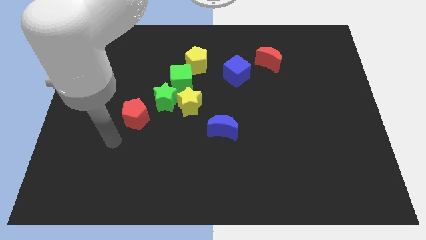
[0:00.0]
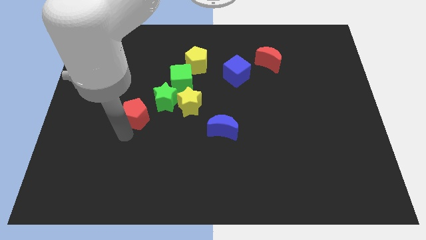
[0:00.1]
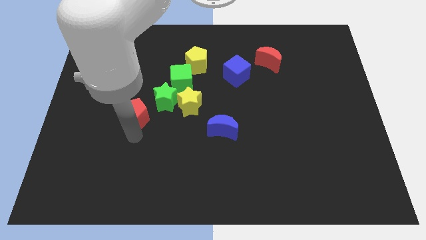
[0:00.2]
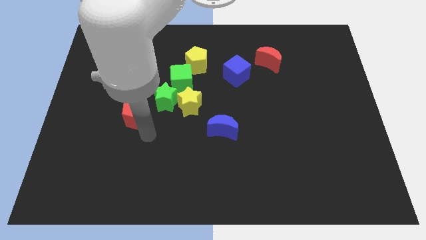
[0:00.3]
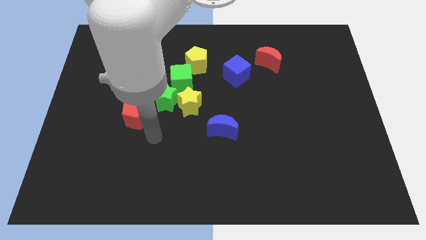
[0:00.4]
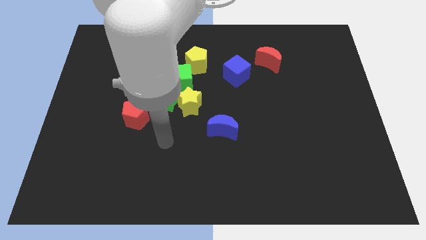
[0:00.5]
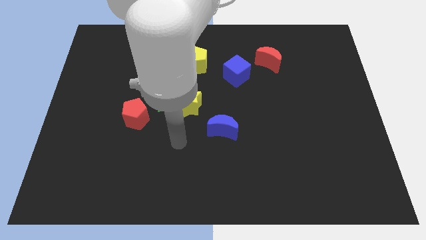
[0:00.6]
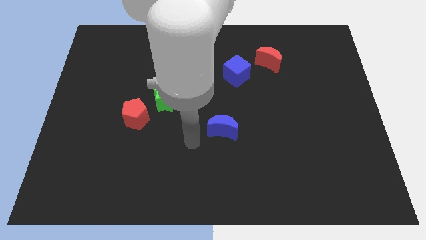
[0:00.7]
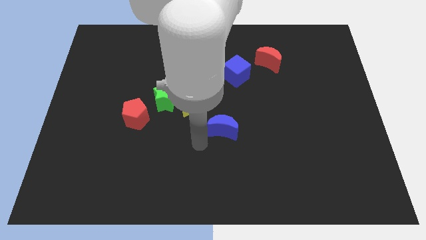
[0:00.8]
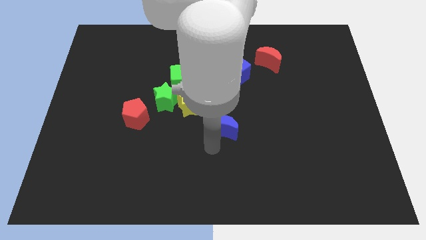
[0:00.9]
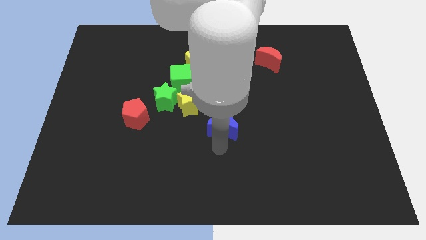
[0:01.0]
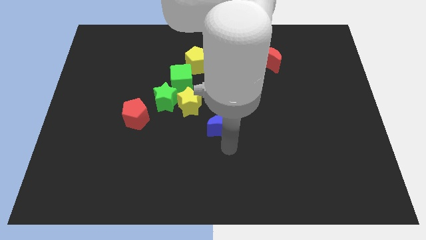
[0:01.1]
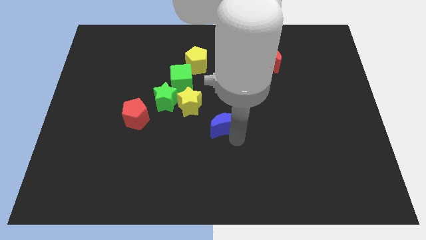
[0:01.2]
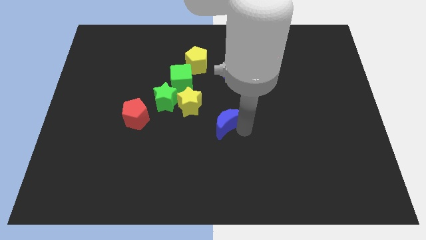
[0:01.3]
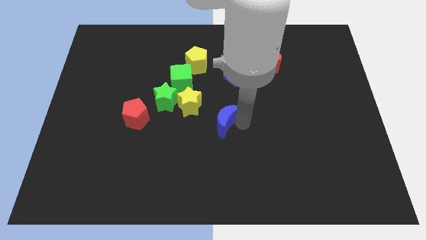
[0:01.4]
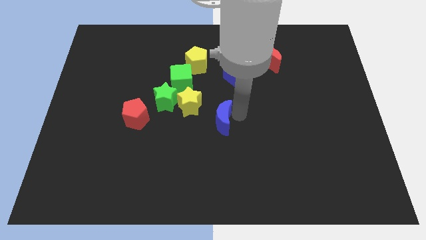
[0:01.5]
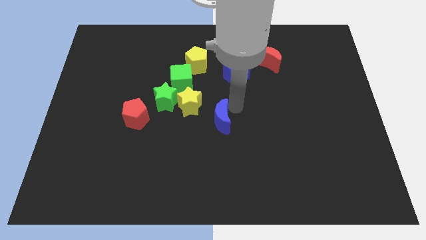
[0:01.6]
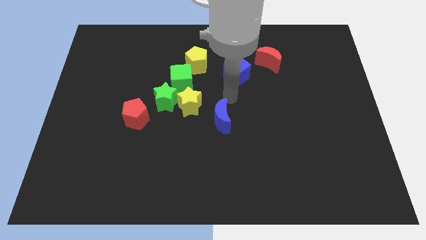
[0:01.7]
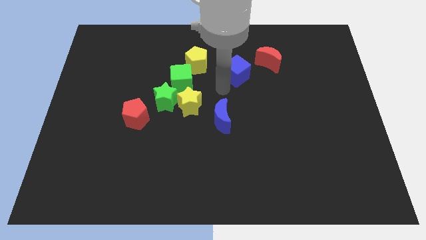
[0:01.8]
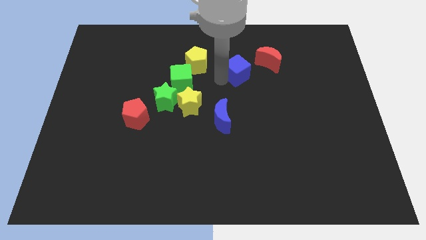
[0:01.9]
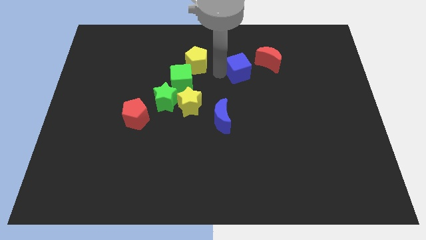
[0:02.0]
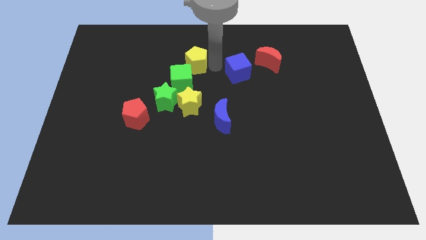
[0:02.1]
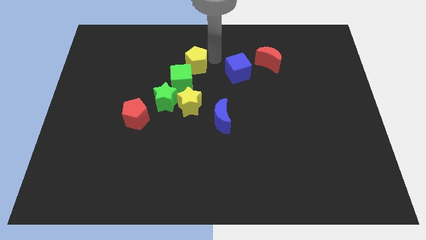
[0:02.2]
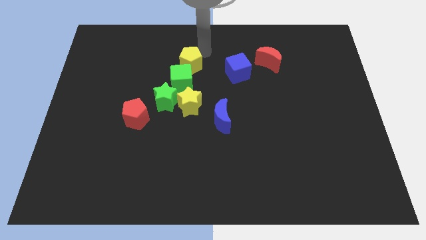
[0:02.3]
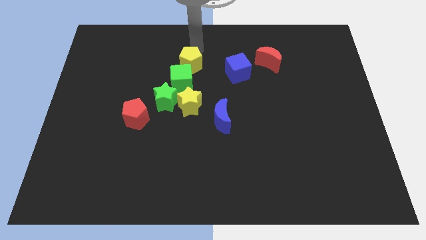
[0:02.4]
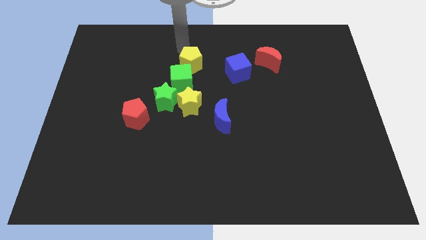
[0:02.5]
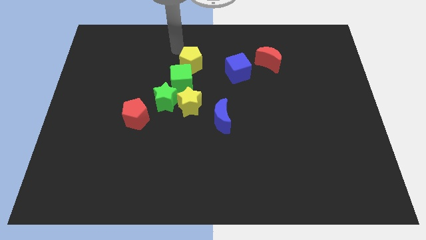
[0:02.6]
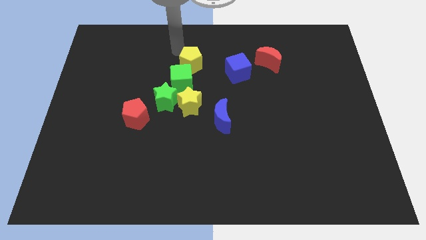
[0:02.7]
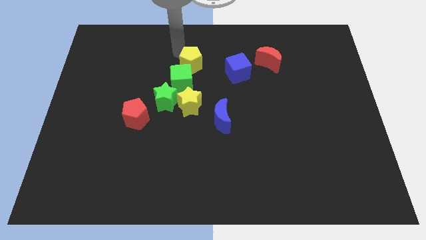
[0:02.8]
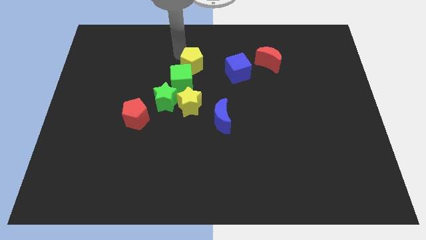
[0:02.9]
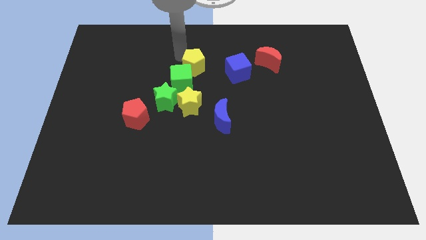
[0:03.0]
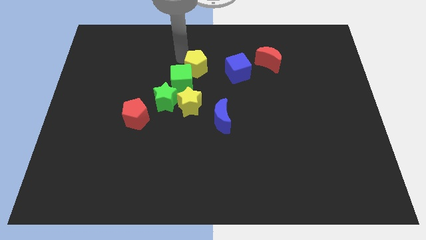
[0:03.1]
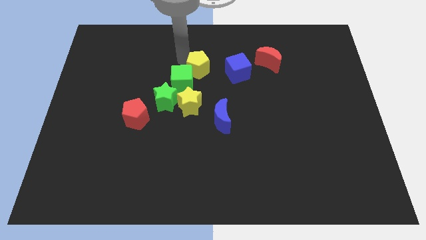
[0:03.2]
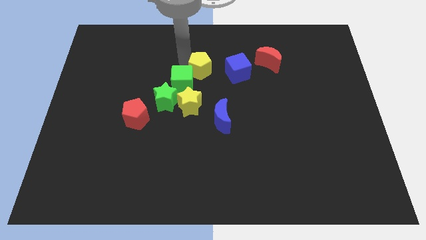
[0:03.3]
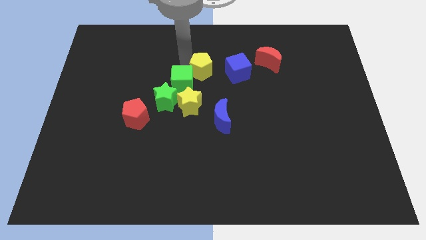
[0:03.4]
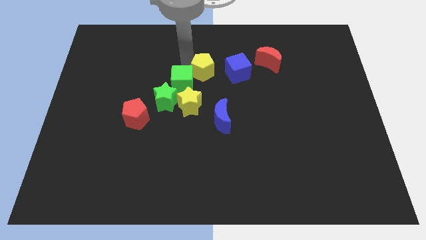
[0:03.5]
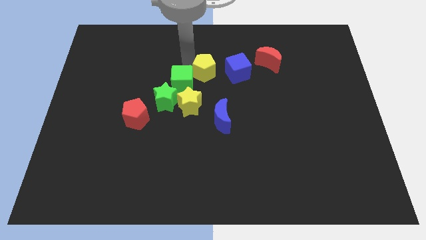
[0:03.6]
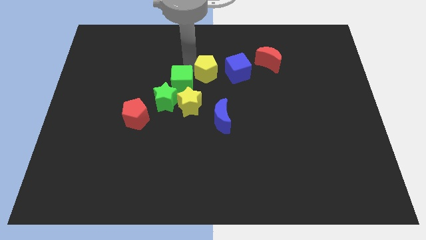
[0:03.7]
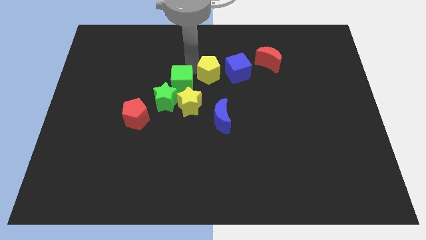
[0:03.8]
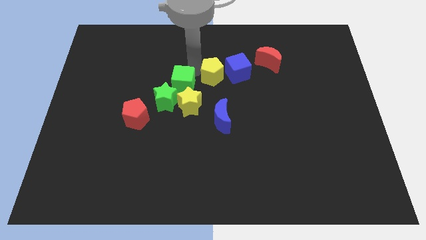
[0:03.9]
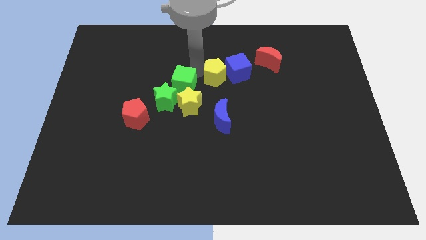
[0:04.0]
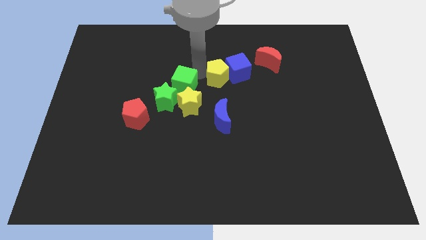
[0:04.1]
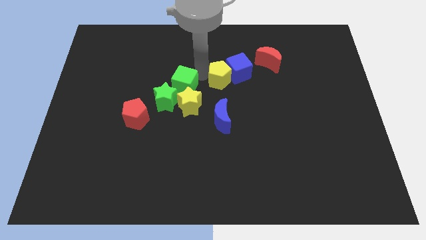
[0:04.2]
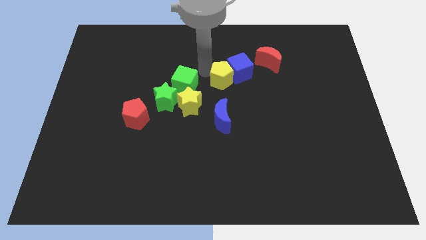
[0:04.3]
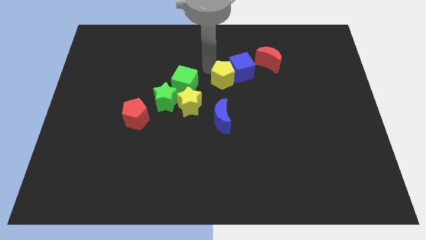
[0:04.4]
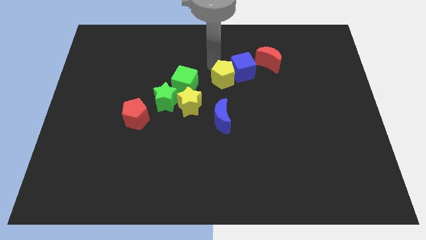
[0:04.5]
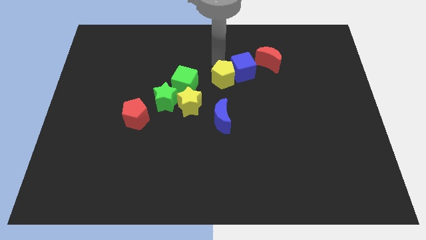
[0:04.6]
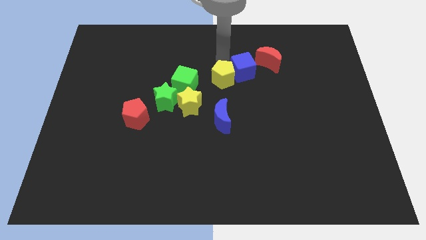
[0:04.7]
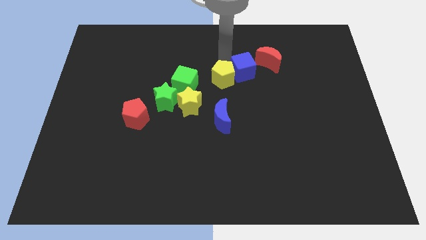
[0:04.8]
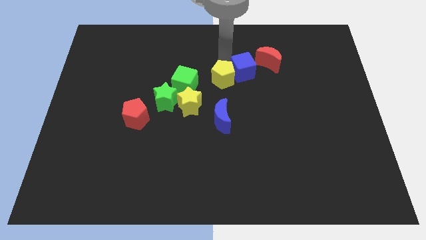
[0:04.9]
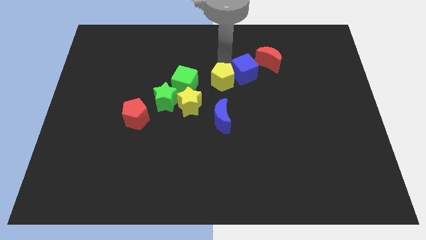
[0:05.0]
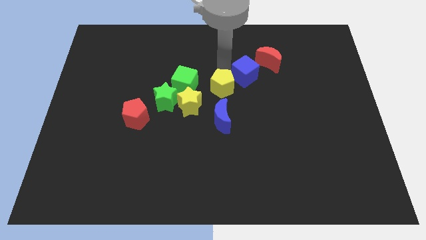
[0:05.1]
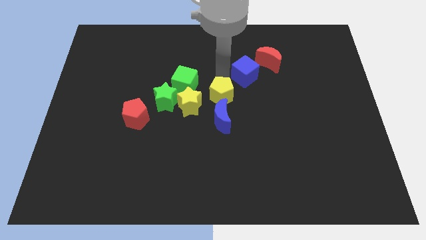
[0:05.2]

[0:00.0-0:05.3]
slide the yellow pentagon a little downwards

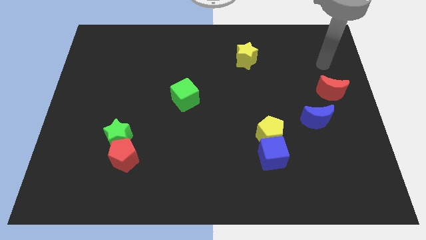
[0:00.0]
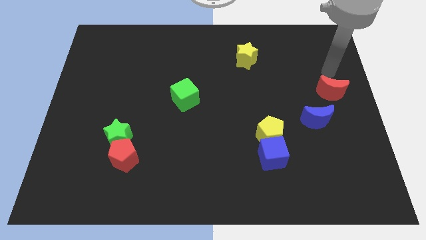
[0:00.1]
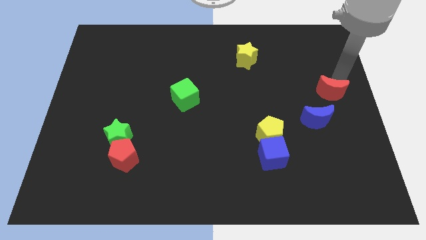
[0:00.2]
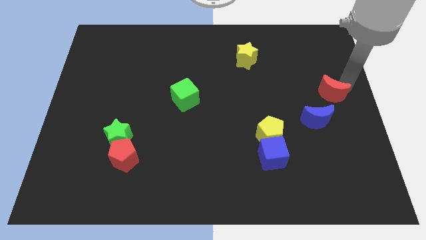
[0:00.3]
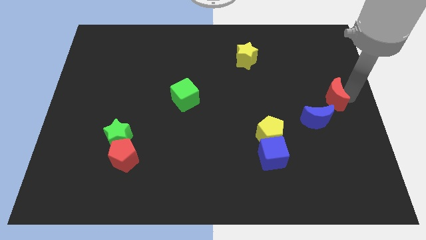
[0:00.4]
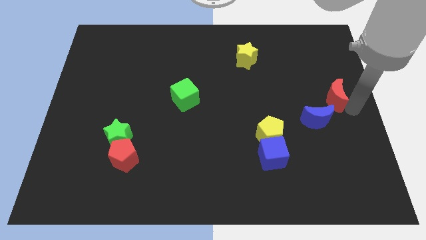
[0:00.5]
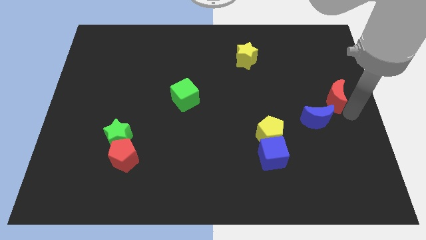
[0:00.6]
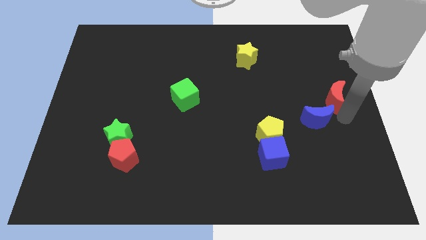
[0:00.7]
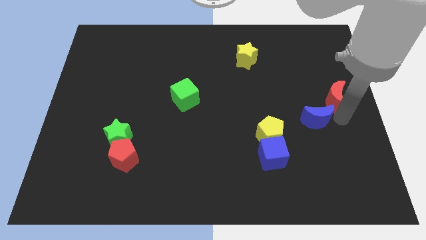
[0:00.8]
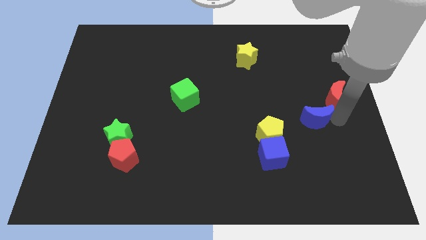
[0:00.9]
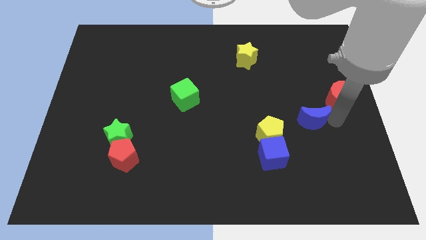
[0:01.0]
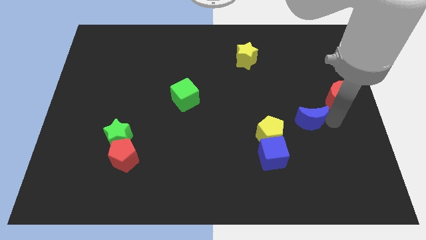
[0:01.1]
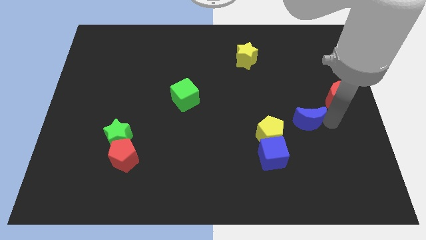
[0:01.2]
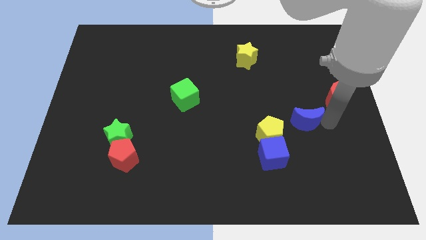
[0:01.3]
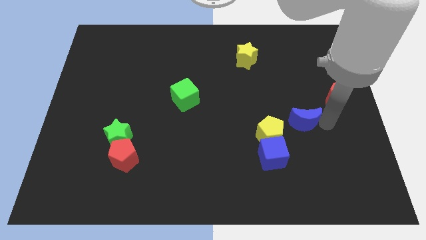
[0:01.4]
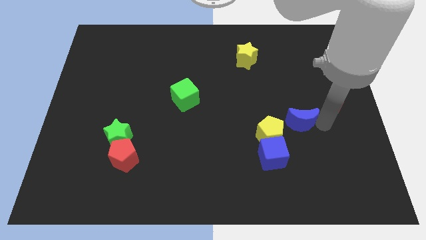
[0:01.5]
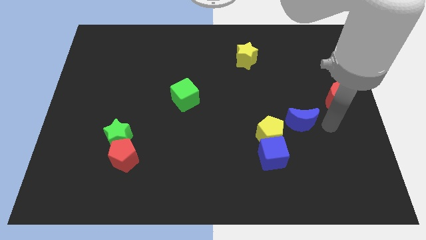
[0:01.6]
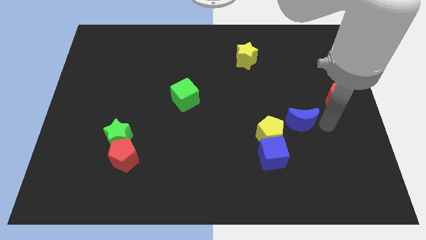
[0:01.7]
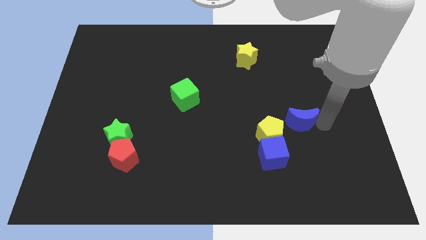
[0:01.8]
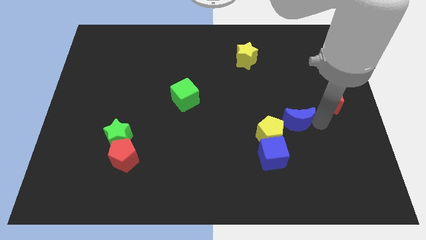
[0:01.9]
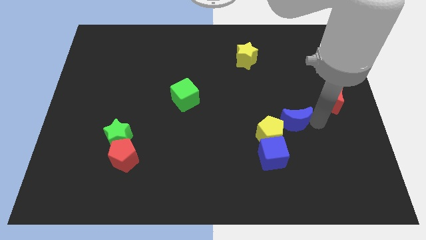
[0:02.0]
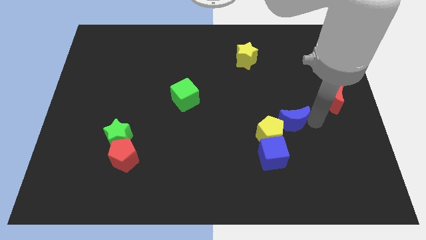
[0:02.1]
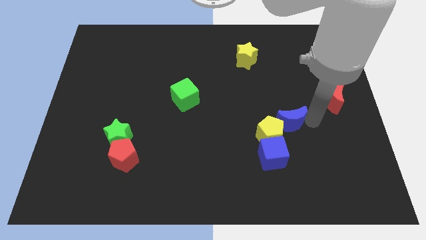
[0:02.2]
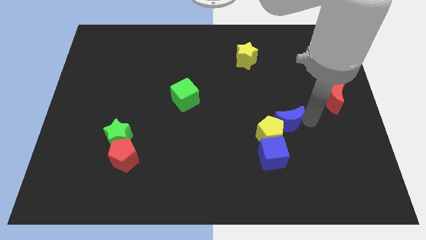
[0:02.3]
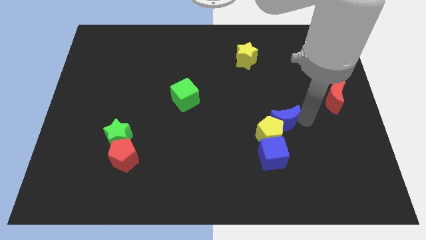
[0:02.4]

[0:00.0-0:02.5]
move the blue moon left slightly

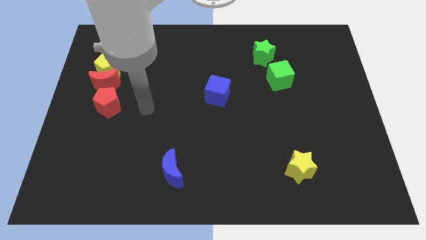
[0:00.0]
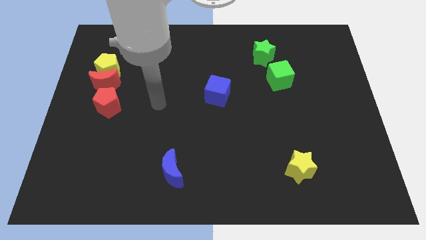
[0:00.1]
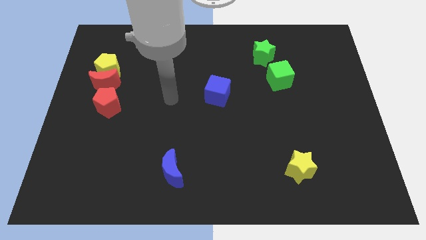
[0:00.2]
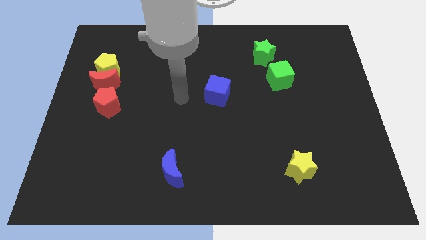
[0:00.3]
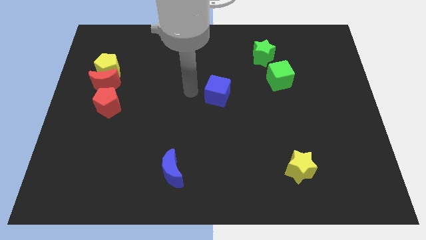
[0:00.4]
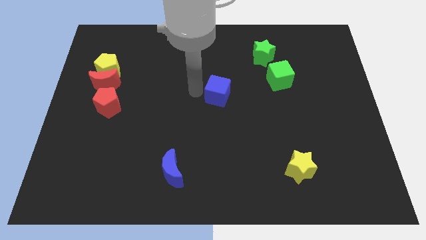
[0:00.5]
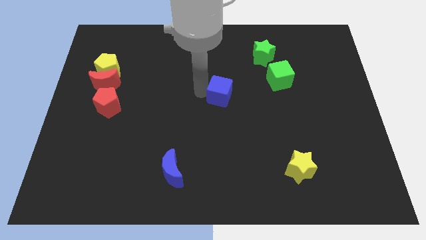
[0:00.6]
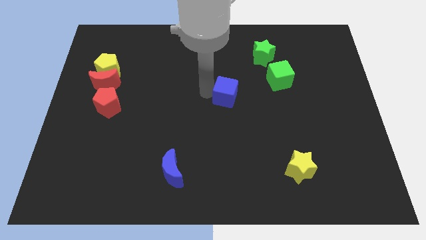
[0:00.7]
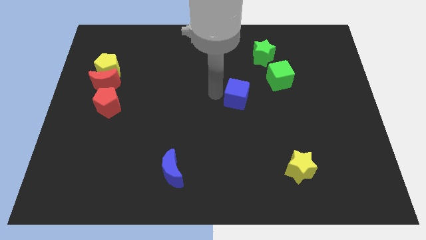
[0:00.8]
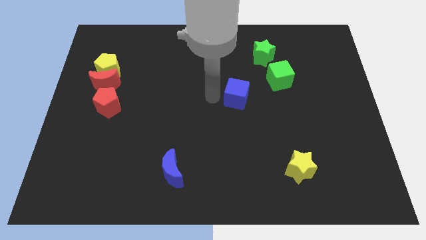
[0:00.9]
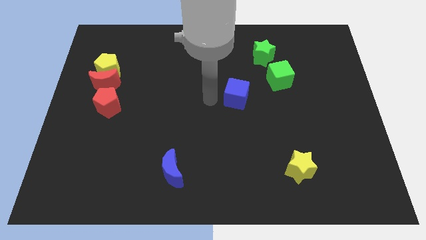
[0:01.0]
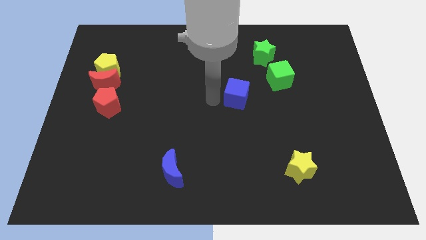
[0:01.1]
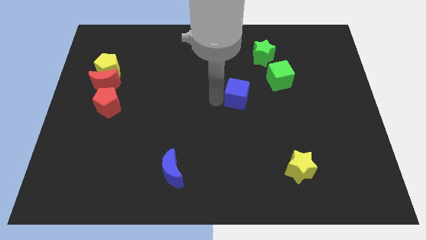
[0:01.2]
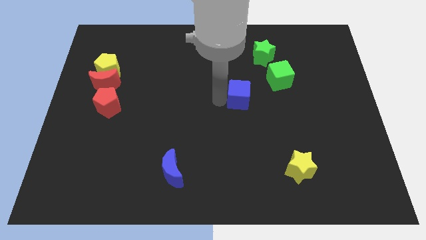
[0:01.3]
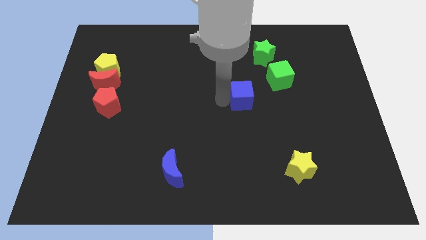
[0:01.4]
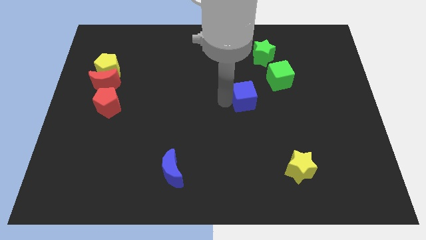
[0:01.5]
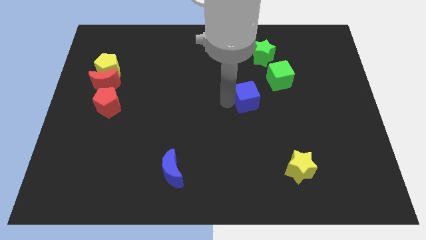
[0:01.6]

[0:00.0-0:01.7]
move the blue cube to the right a bit
